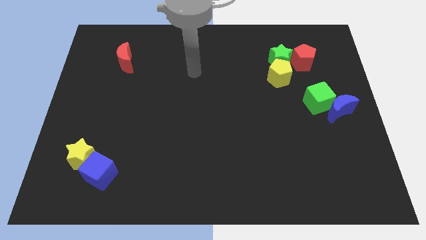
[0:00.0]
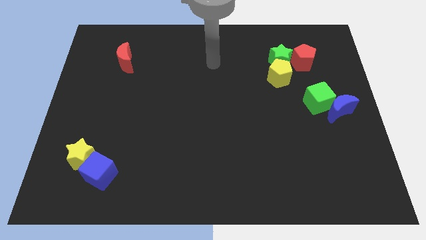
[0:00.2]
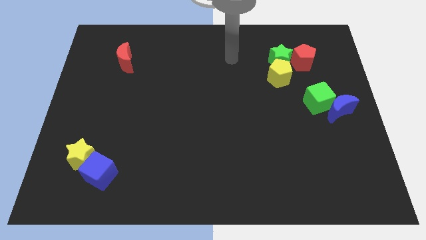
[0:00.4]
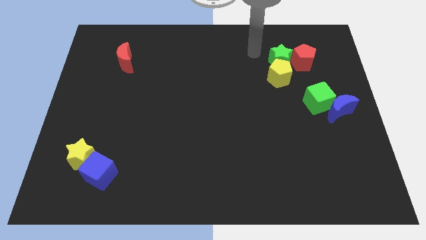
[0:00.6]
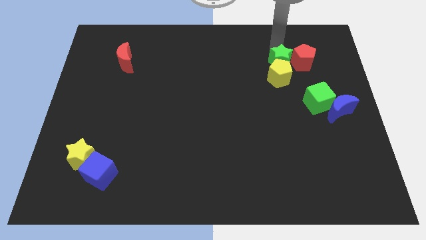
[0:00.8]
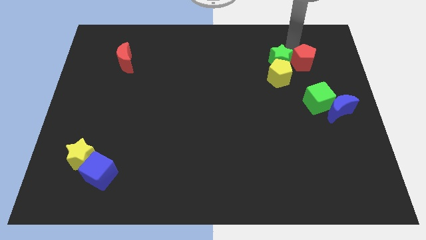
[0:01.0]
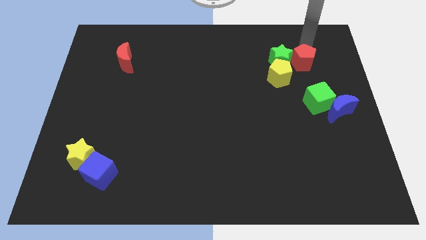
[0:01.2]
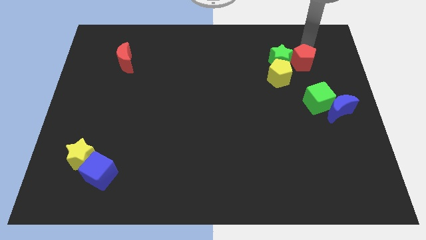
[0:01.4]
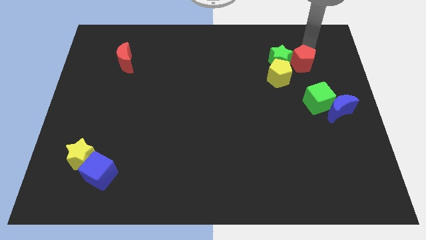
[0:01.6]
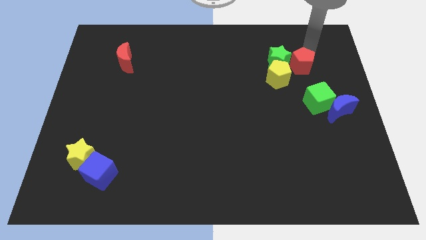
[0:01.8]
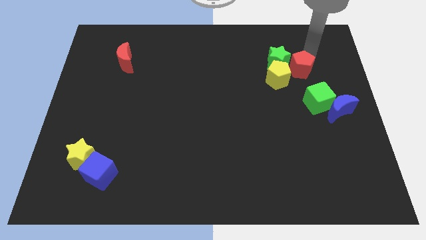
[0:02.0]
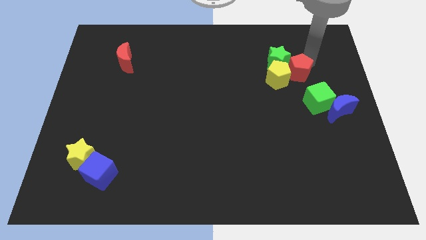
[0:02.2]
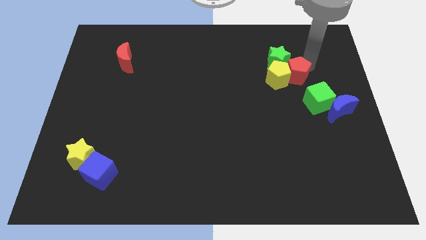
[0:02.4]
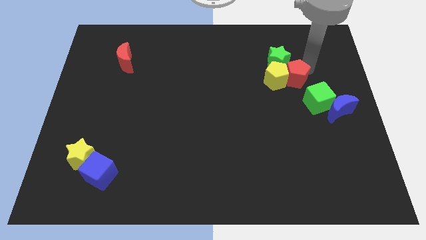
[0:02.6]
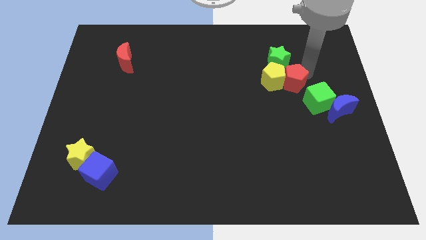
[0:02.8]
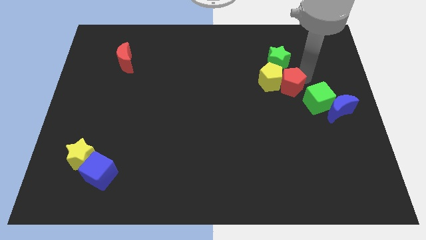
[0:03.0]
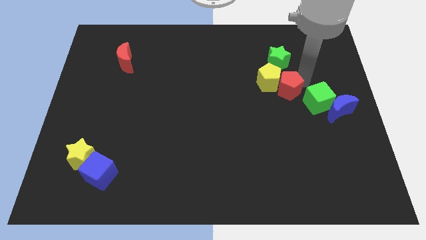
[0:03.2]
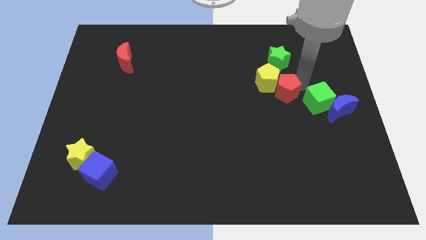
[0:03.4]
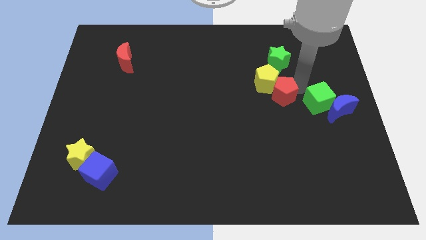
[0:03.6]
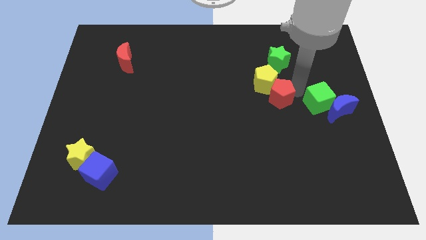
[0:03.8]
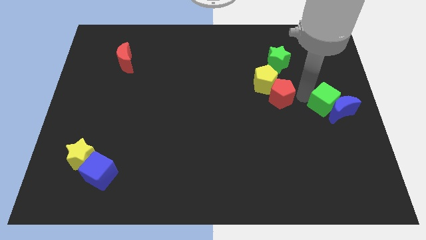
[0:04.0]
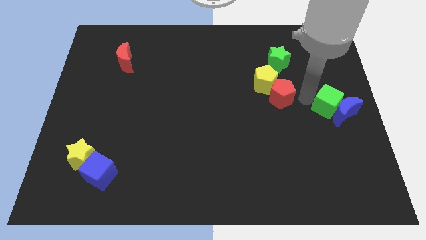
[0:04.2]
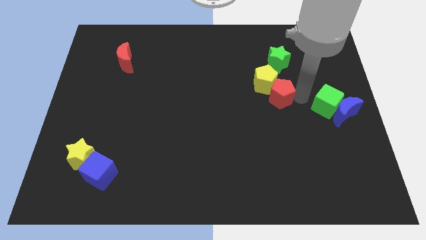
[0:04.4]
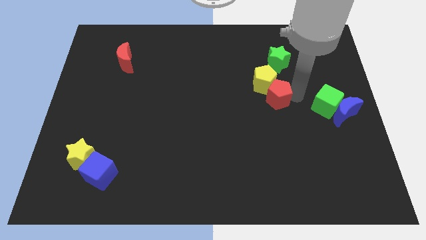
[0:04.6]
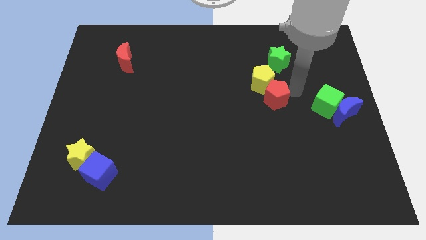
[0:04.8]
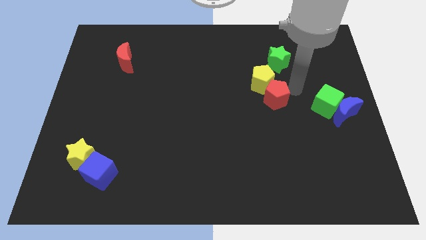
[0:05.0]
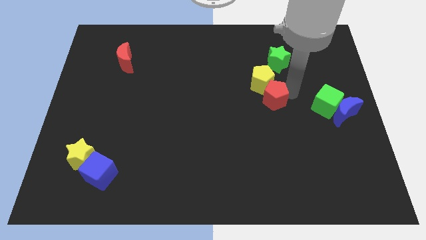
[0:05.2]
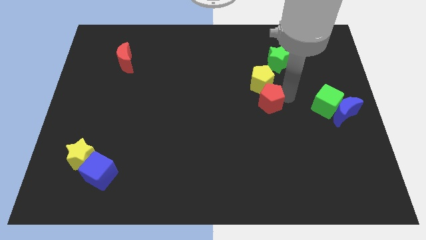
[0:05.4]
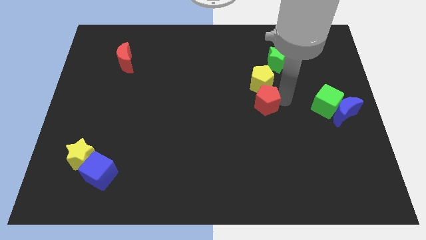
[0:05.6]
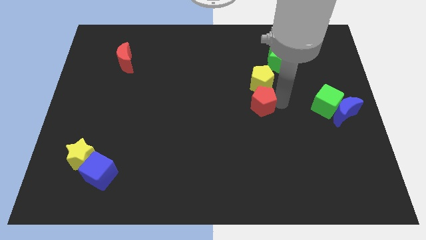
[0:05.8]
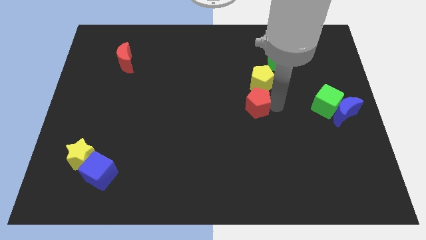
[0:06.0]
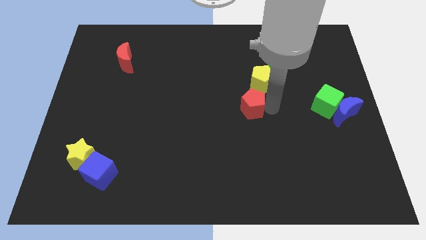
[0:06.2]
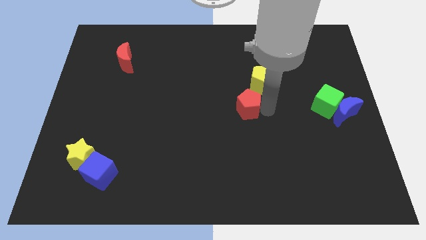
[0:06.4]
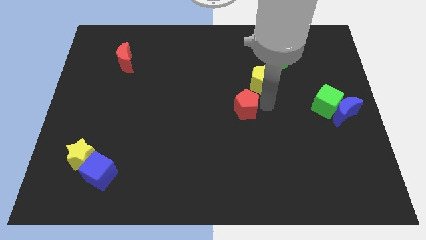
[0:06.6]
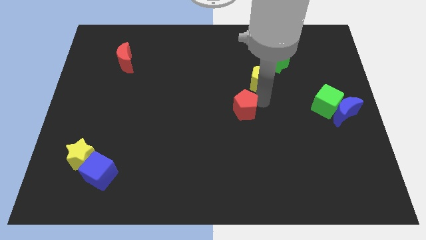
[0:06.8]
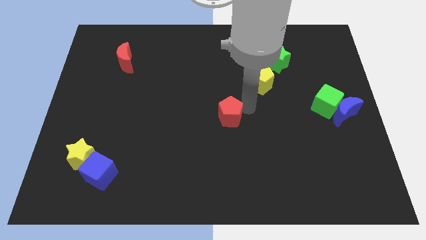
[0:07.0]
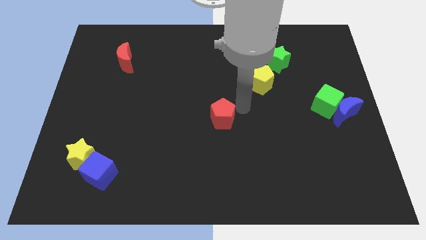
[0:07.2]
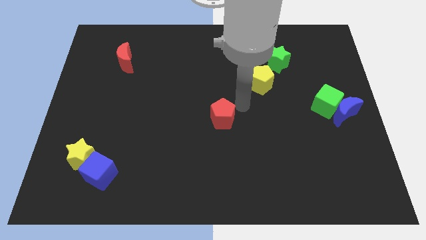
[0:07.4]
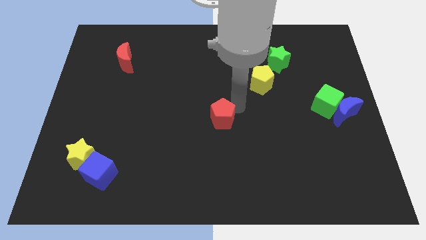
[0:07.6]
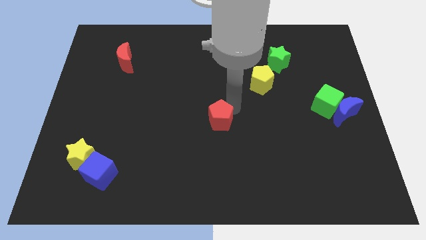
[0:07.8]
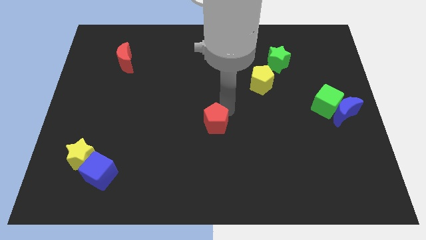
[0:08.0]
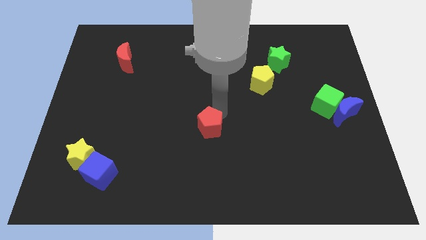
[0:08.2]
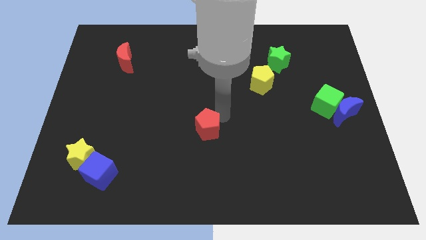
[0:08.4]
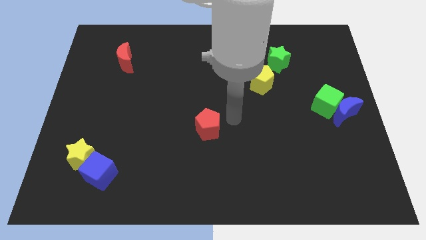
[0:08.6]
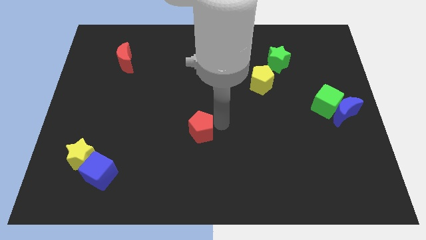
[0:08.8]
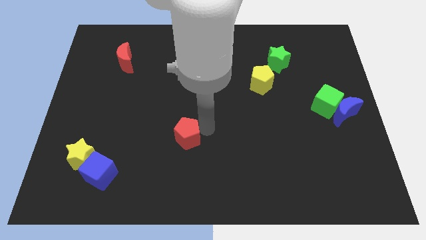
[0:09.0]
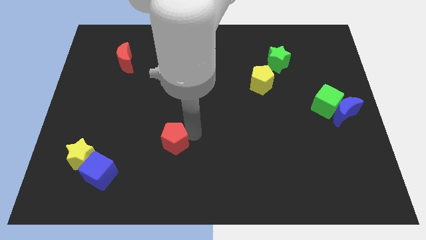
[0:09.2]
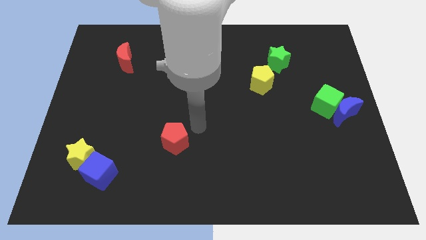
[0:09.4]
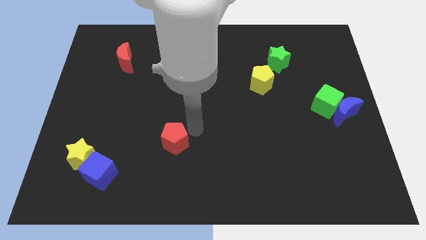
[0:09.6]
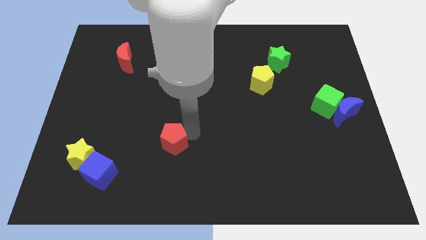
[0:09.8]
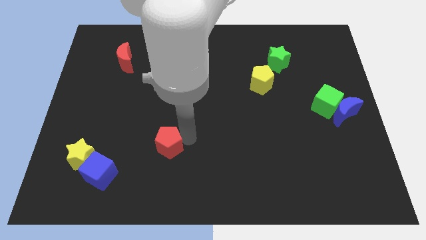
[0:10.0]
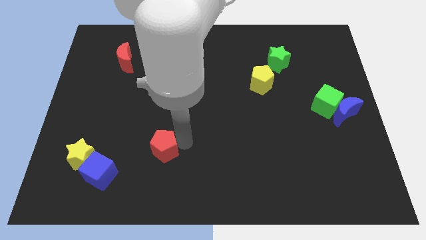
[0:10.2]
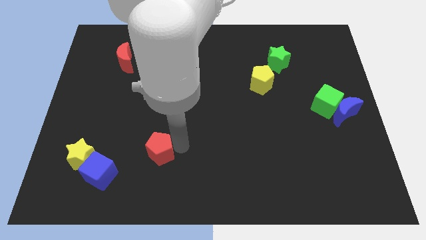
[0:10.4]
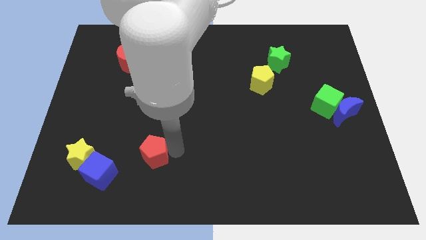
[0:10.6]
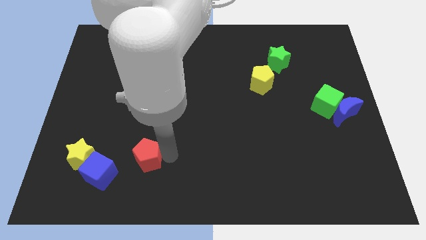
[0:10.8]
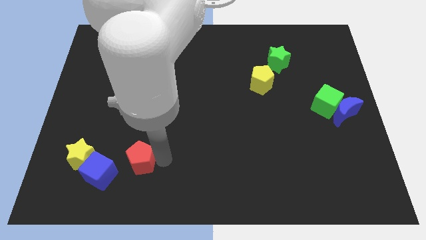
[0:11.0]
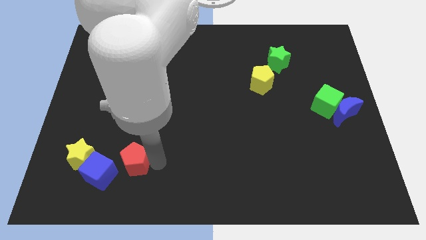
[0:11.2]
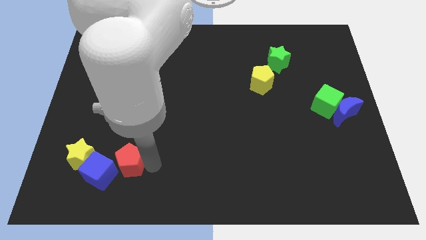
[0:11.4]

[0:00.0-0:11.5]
put the red pentagon next to the blue cube
